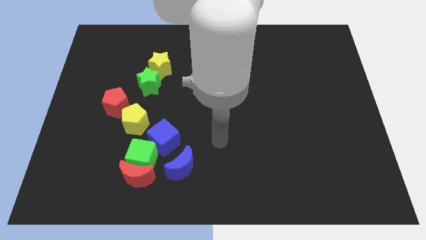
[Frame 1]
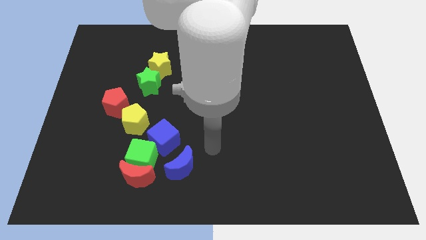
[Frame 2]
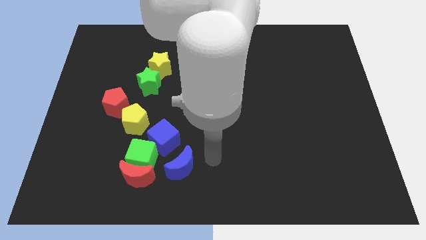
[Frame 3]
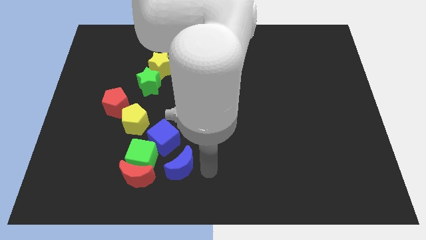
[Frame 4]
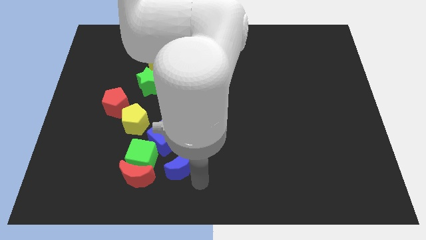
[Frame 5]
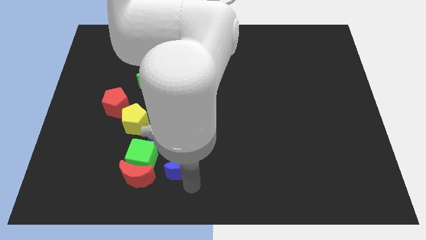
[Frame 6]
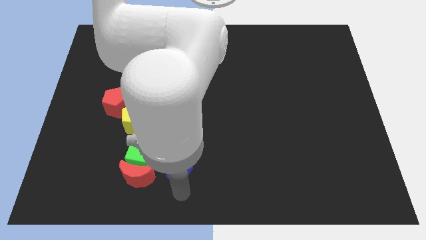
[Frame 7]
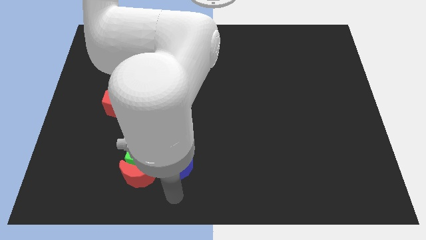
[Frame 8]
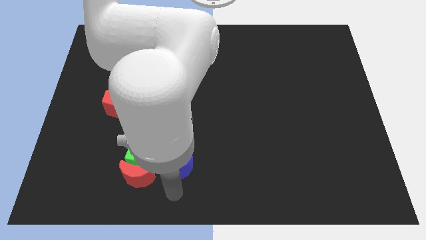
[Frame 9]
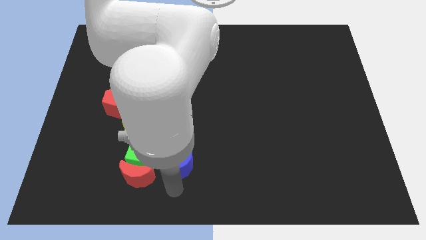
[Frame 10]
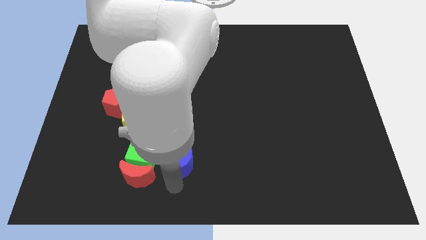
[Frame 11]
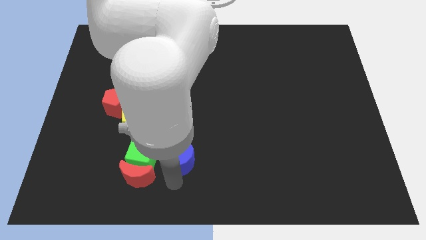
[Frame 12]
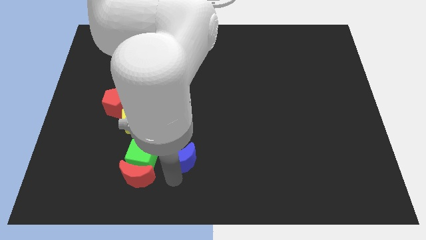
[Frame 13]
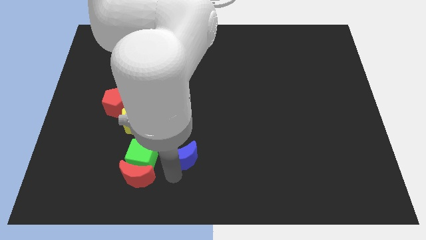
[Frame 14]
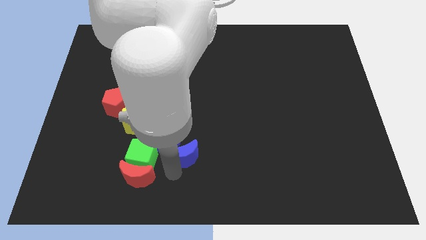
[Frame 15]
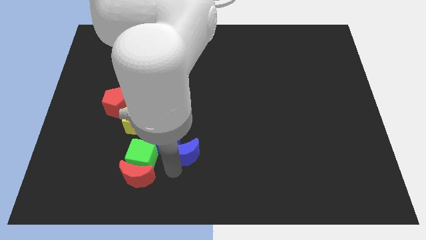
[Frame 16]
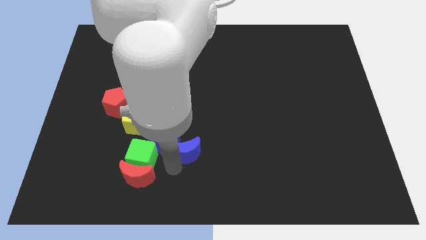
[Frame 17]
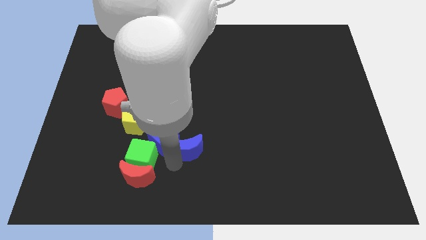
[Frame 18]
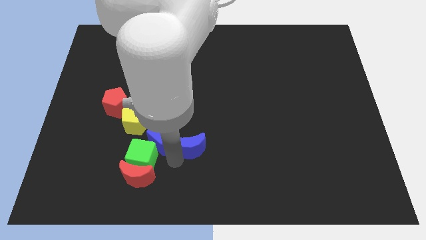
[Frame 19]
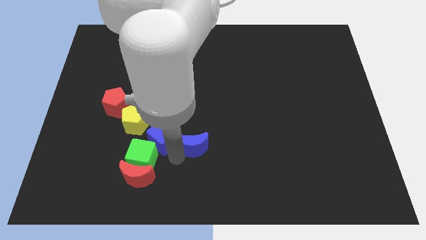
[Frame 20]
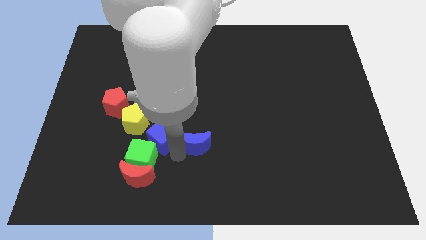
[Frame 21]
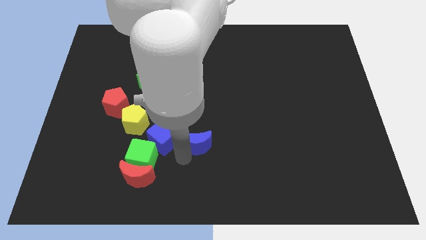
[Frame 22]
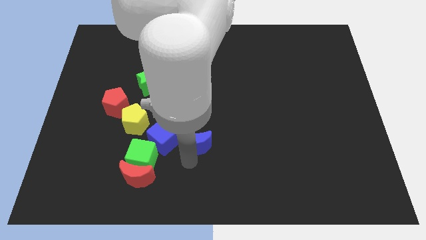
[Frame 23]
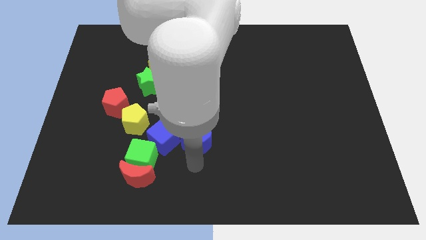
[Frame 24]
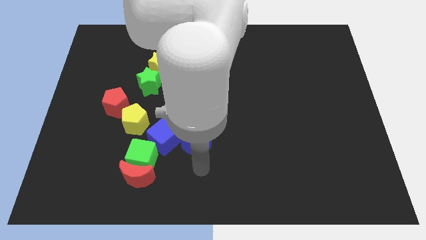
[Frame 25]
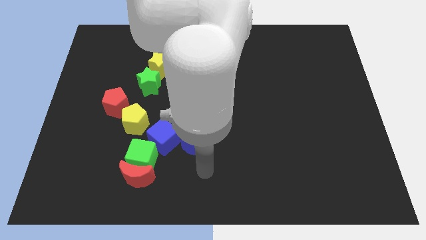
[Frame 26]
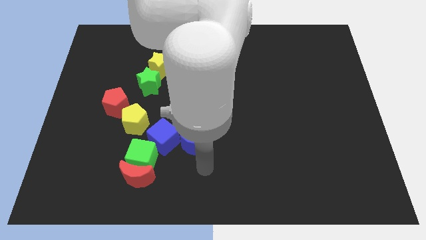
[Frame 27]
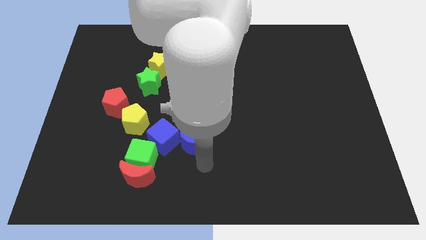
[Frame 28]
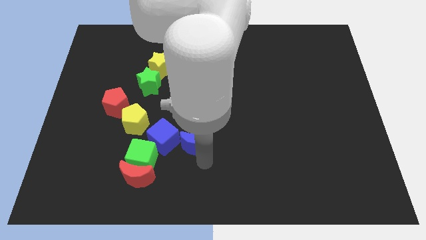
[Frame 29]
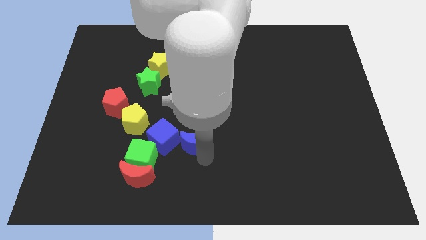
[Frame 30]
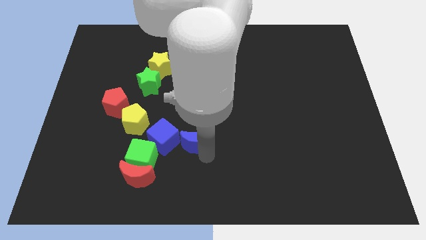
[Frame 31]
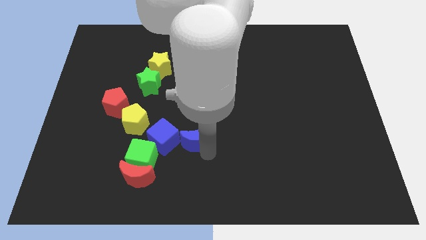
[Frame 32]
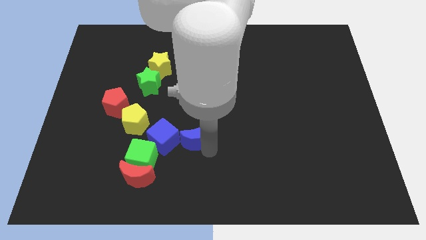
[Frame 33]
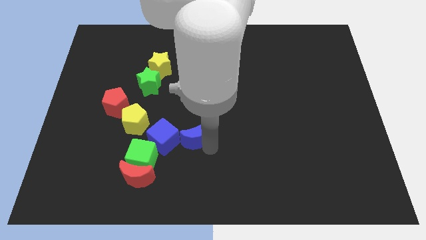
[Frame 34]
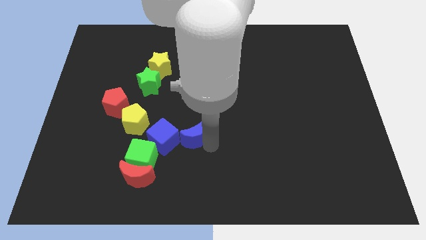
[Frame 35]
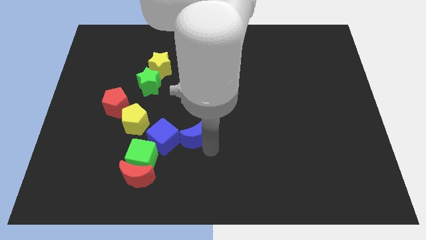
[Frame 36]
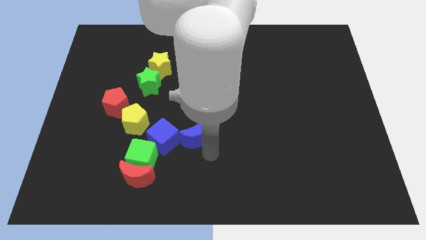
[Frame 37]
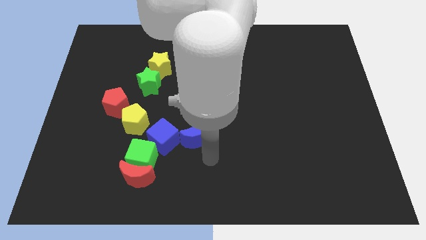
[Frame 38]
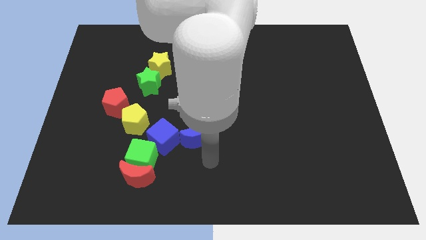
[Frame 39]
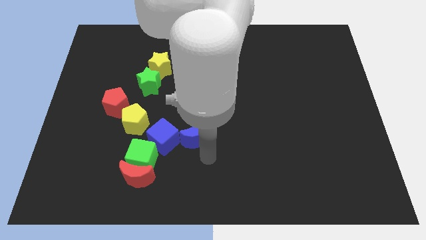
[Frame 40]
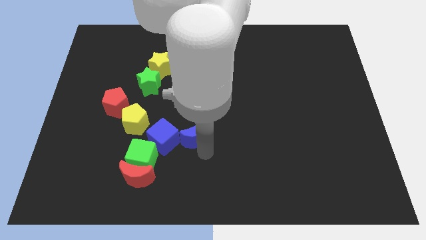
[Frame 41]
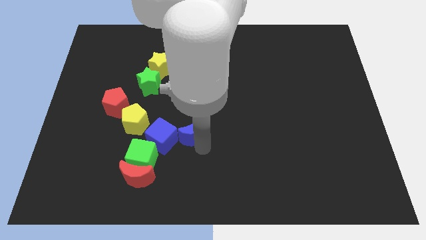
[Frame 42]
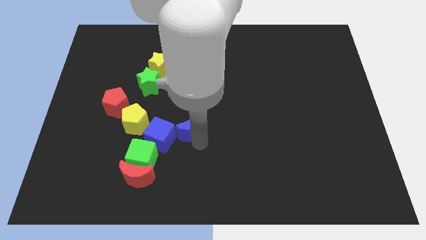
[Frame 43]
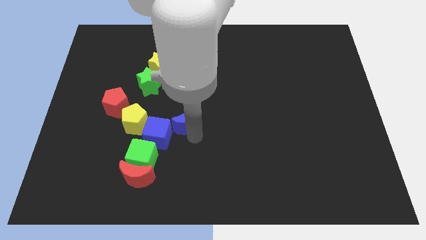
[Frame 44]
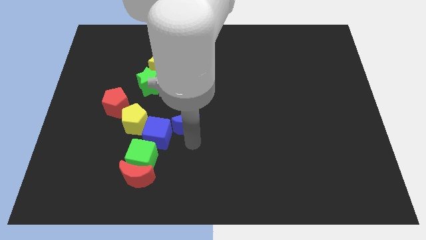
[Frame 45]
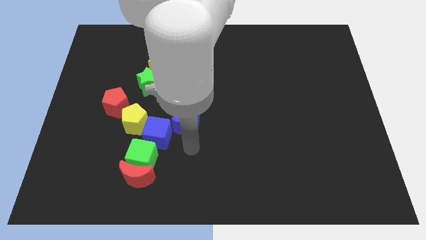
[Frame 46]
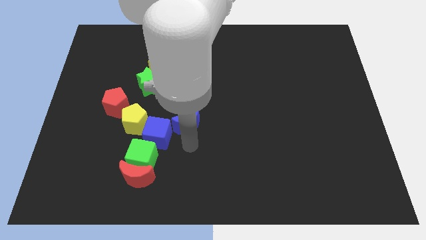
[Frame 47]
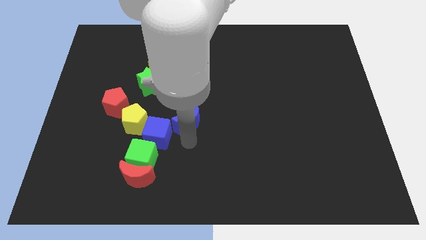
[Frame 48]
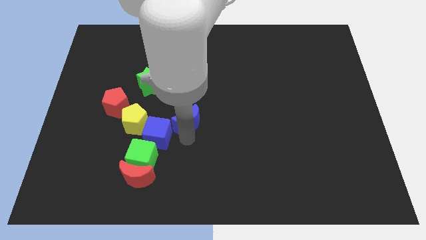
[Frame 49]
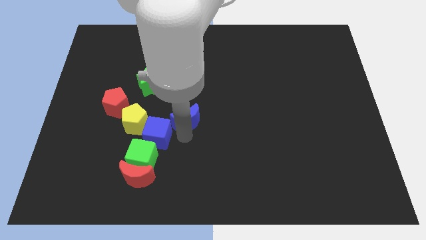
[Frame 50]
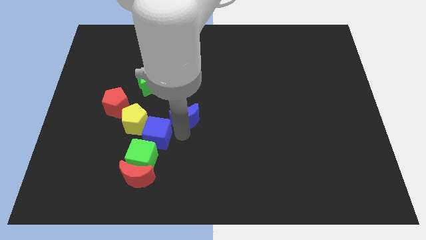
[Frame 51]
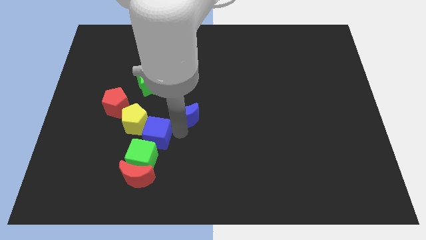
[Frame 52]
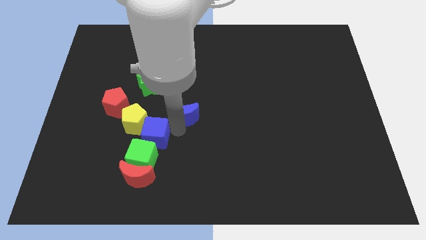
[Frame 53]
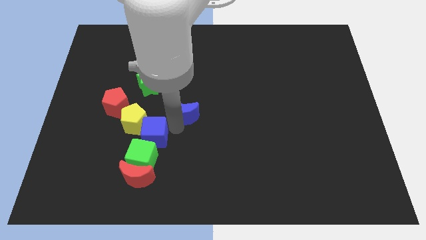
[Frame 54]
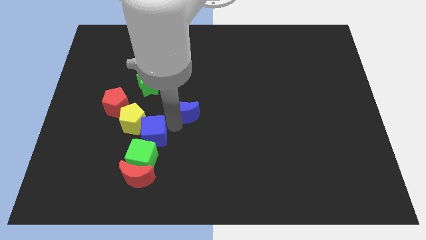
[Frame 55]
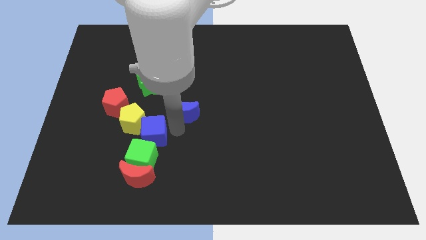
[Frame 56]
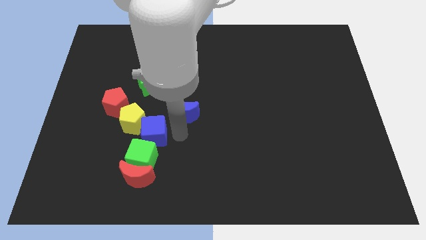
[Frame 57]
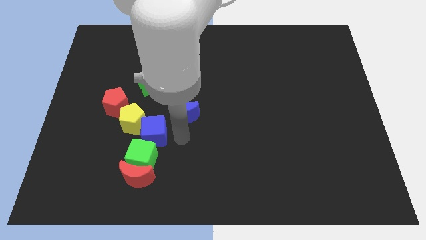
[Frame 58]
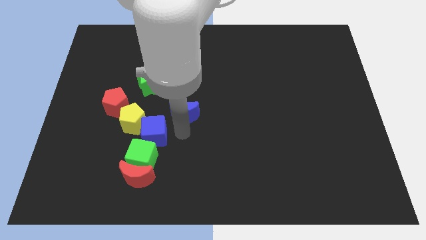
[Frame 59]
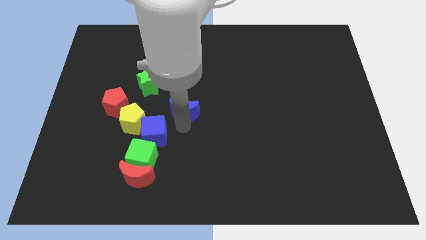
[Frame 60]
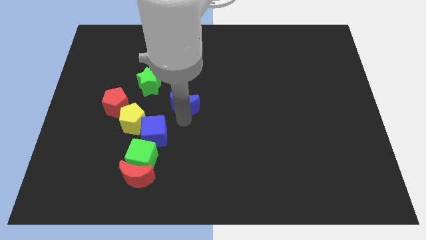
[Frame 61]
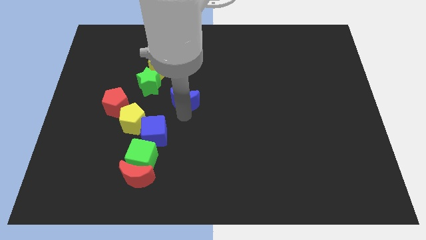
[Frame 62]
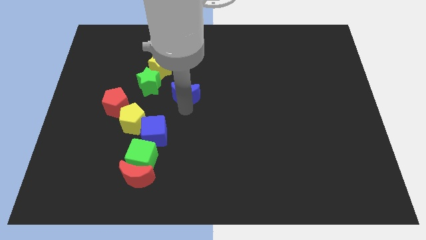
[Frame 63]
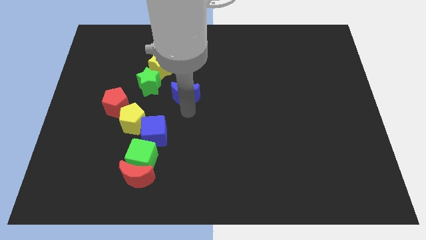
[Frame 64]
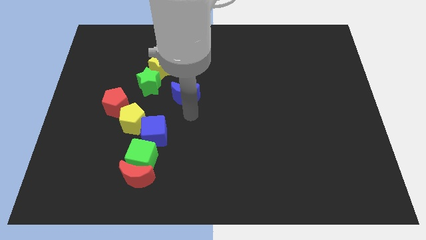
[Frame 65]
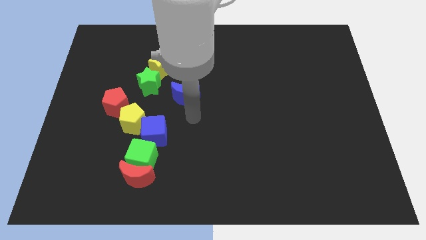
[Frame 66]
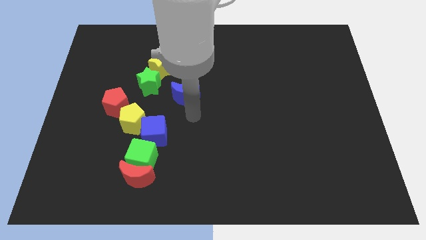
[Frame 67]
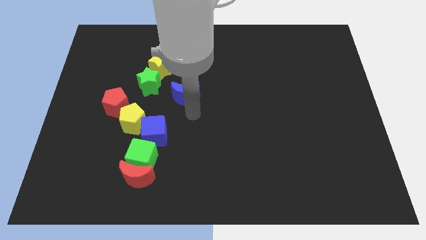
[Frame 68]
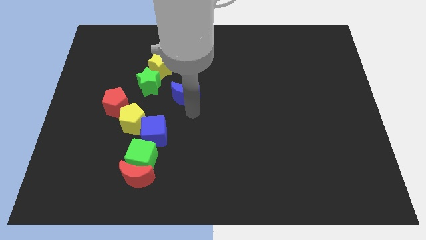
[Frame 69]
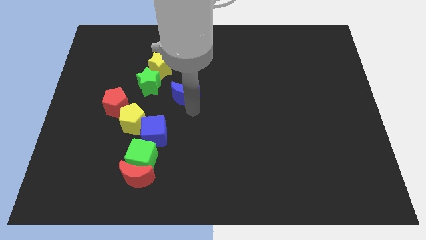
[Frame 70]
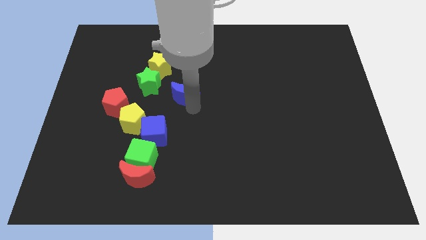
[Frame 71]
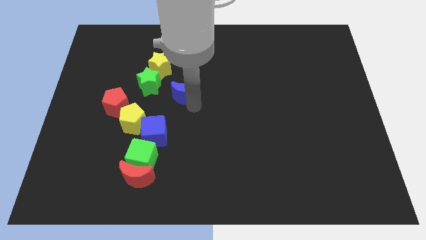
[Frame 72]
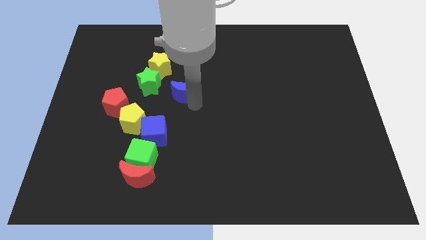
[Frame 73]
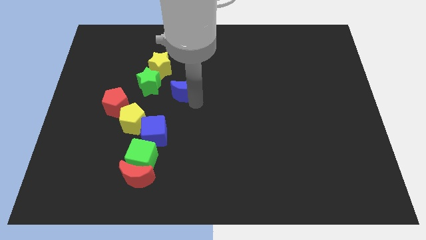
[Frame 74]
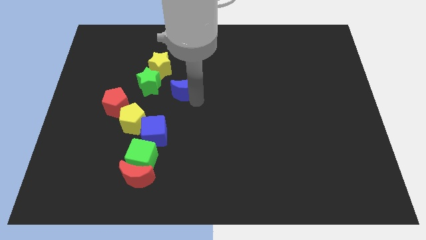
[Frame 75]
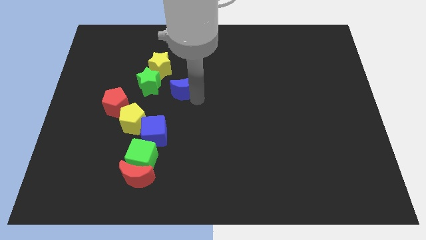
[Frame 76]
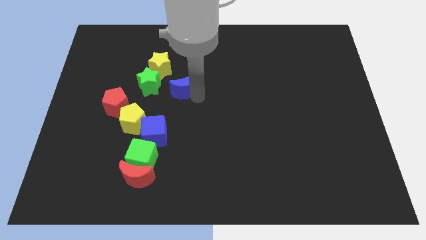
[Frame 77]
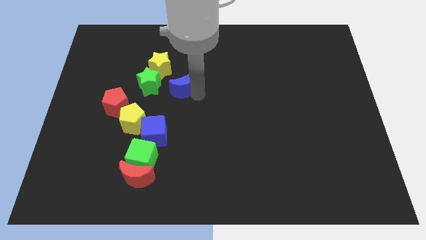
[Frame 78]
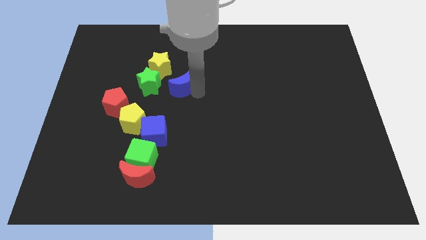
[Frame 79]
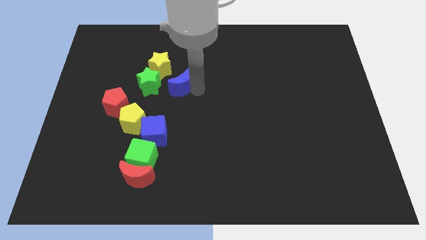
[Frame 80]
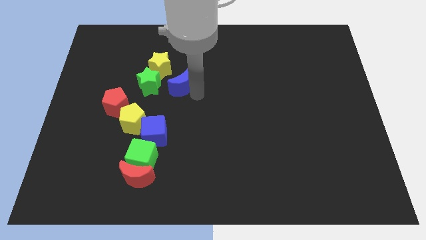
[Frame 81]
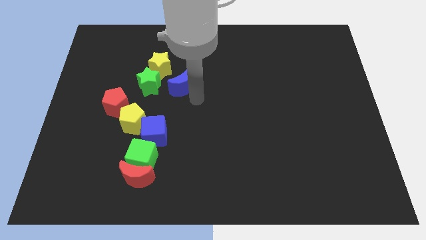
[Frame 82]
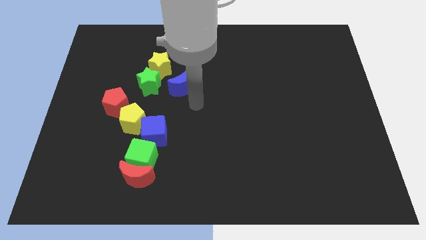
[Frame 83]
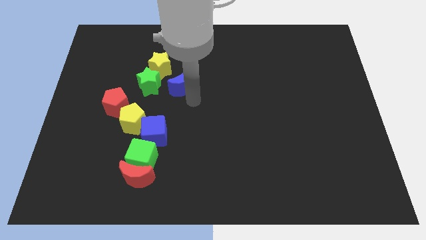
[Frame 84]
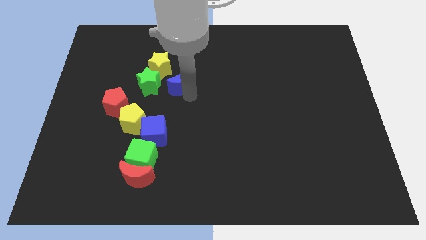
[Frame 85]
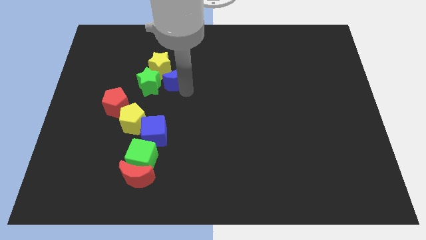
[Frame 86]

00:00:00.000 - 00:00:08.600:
push the blue moon diagonally up and to the right of the green star
